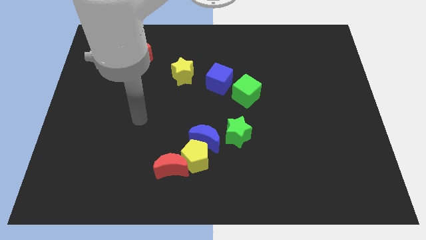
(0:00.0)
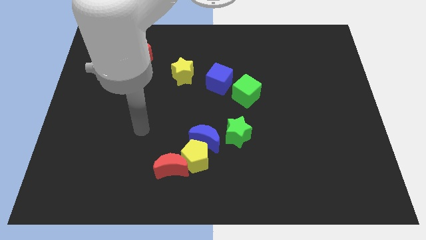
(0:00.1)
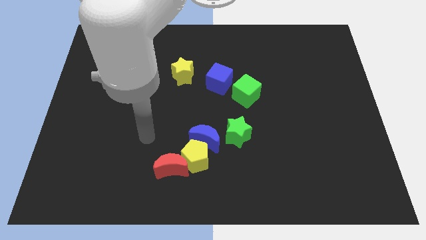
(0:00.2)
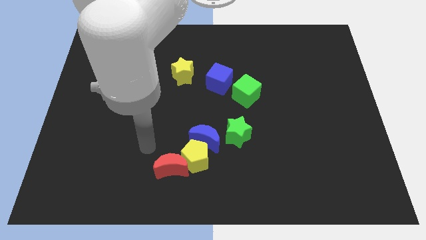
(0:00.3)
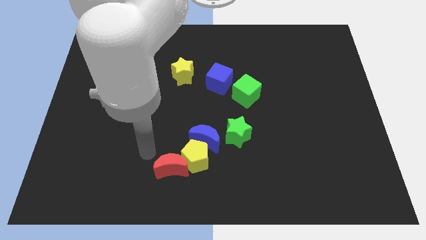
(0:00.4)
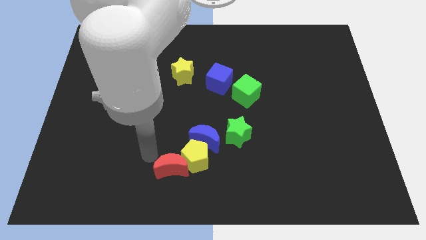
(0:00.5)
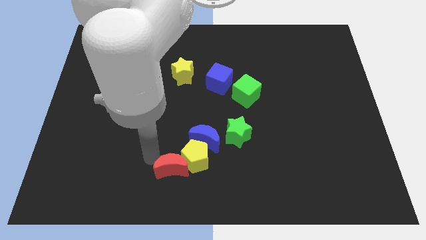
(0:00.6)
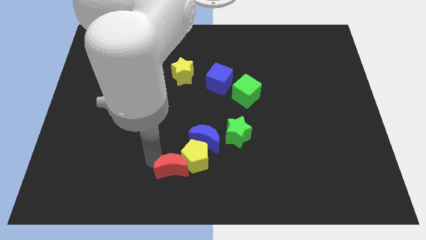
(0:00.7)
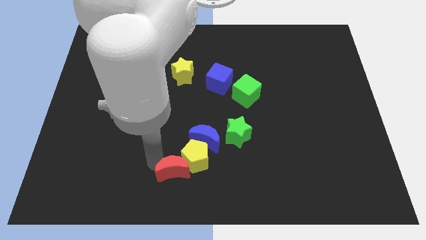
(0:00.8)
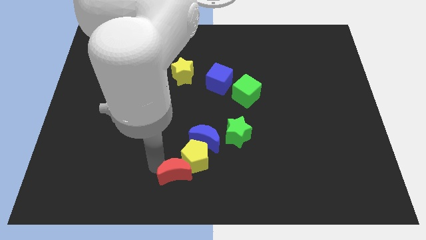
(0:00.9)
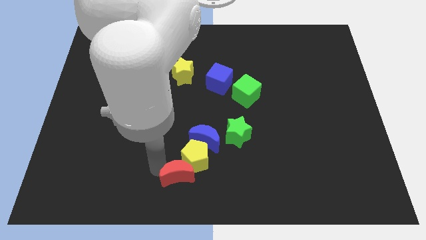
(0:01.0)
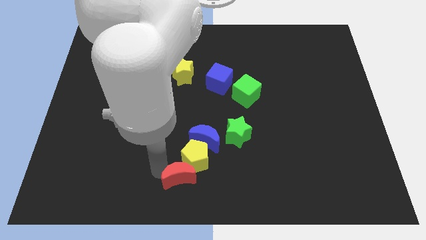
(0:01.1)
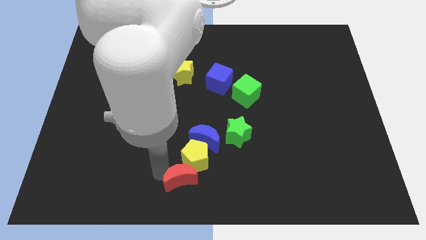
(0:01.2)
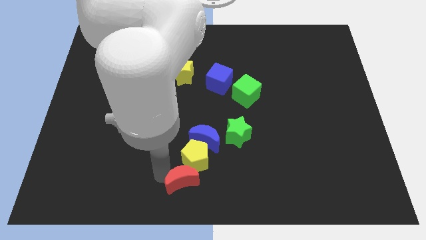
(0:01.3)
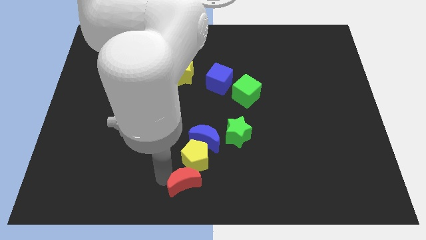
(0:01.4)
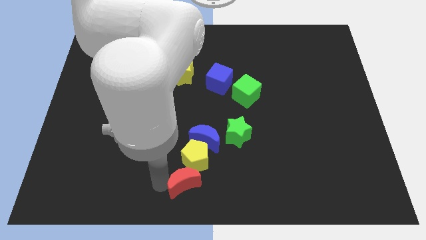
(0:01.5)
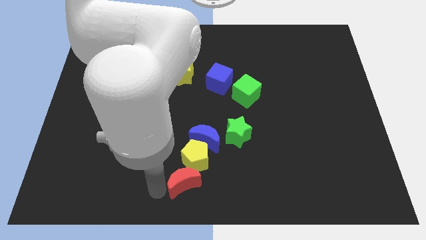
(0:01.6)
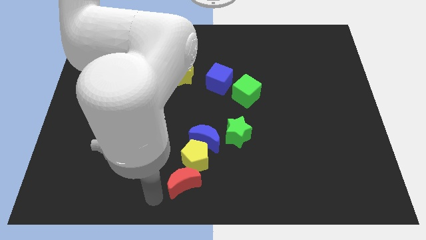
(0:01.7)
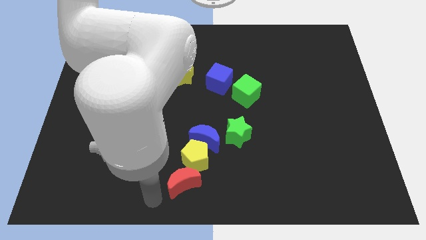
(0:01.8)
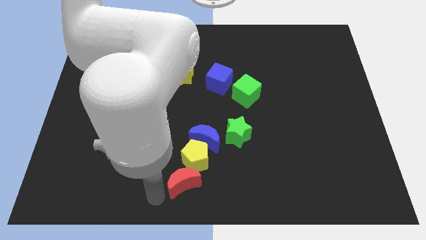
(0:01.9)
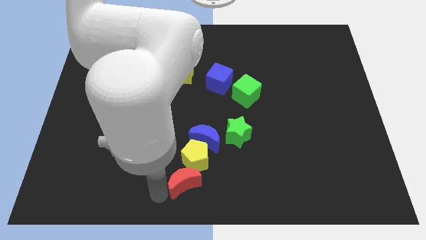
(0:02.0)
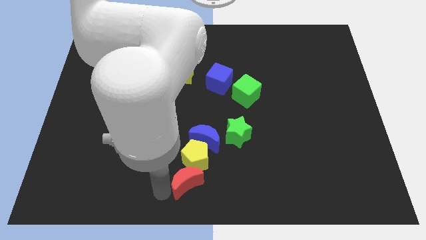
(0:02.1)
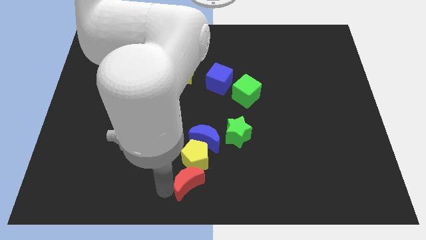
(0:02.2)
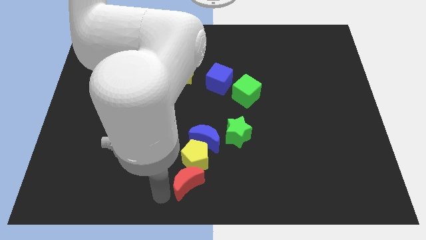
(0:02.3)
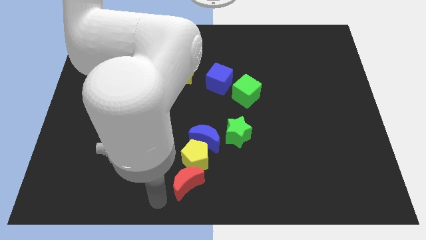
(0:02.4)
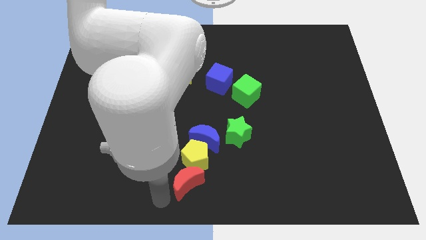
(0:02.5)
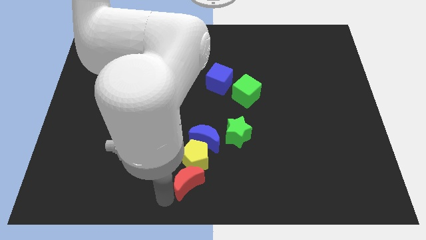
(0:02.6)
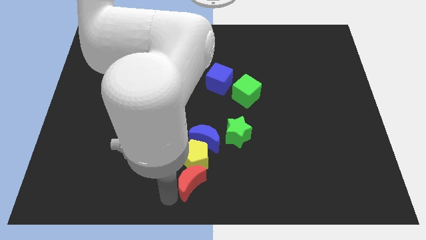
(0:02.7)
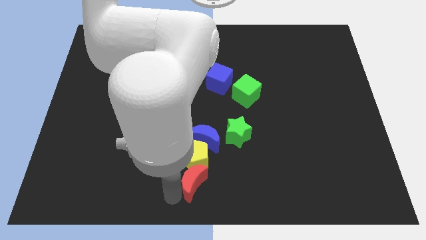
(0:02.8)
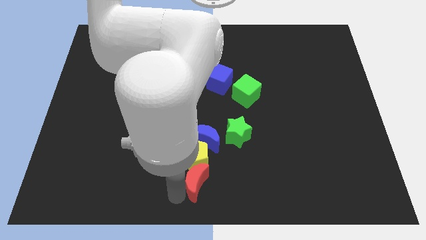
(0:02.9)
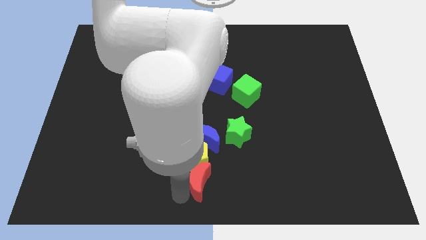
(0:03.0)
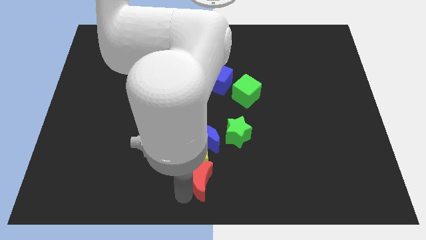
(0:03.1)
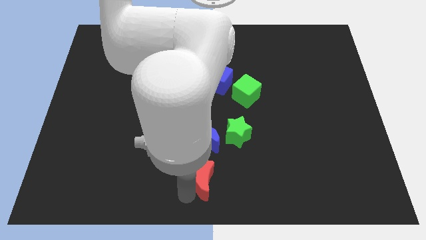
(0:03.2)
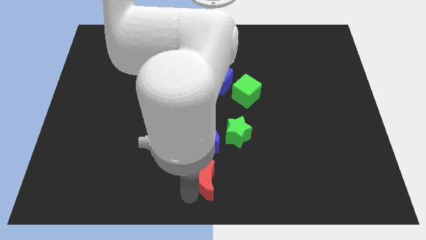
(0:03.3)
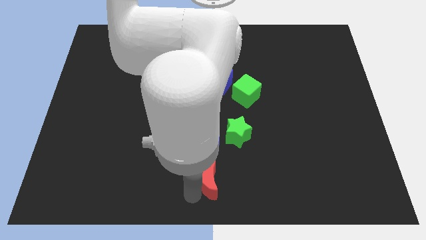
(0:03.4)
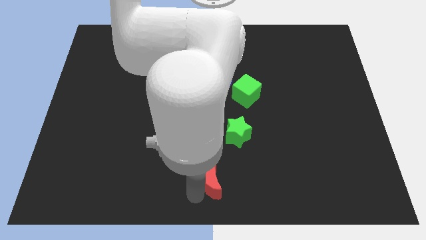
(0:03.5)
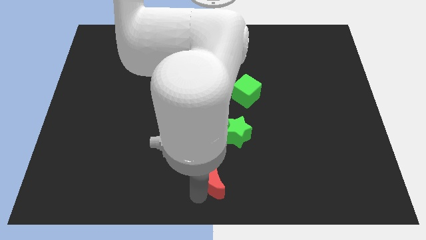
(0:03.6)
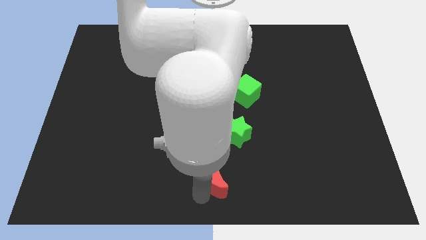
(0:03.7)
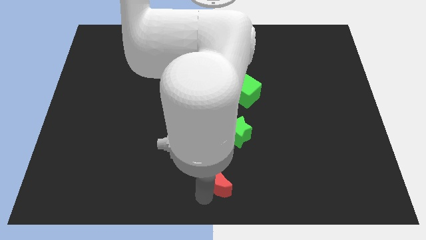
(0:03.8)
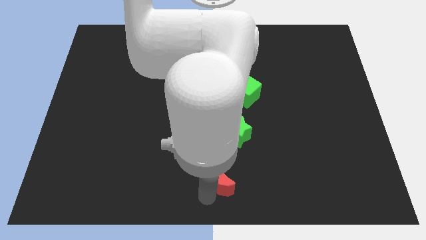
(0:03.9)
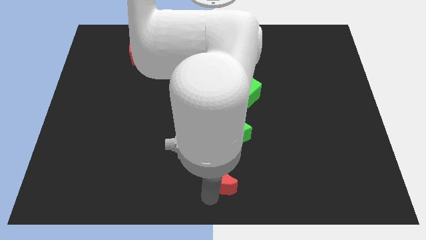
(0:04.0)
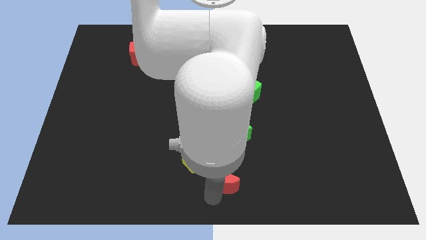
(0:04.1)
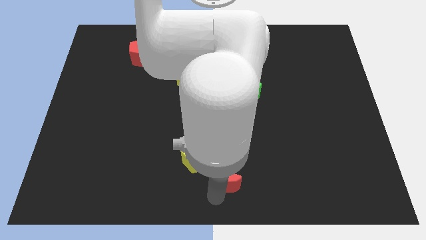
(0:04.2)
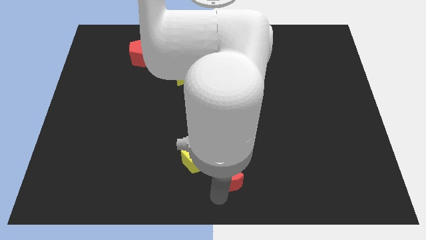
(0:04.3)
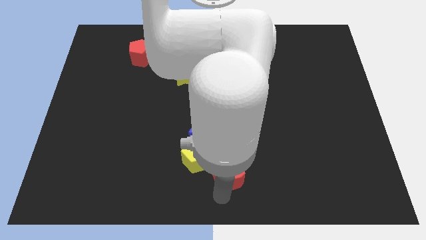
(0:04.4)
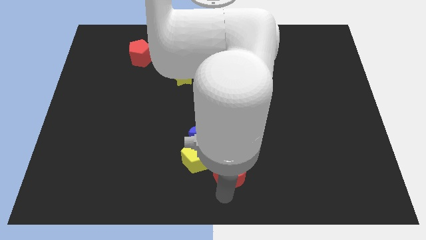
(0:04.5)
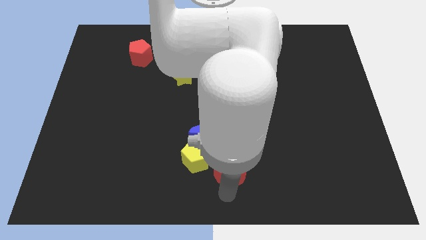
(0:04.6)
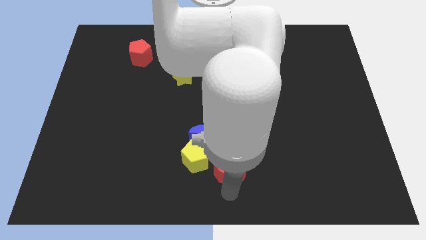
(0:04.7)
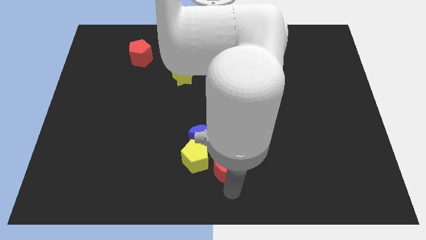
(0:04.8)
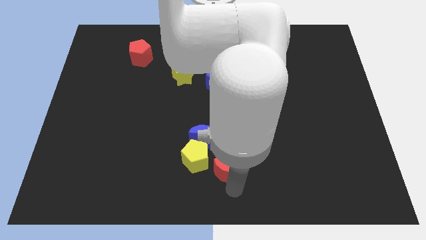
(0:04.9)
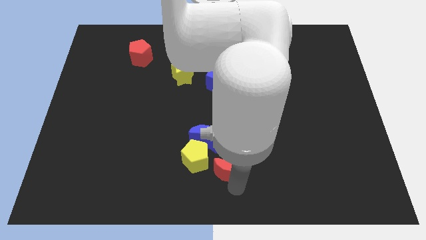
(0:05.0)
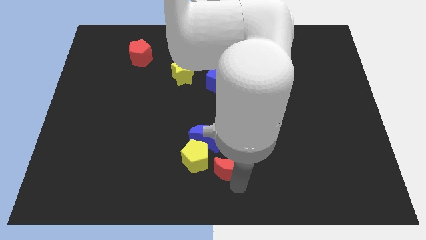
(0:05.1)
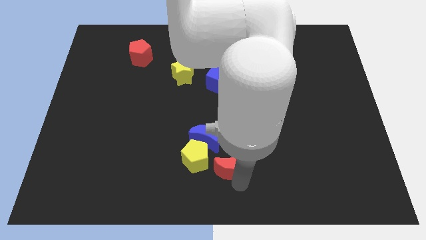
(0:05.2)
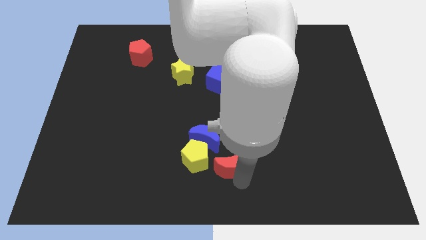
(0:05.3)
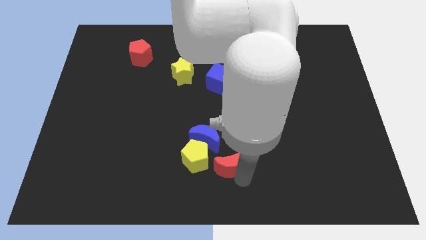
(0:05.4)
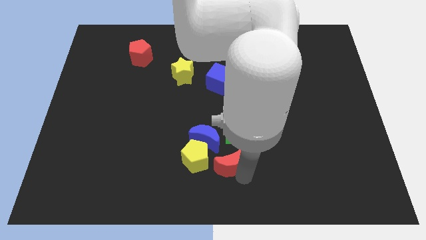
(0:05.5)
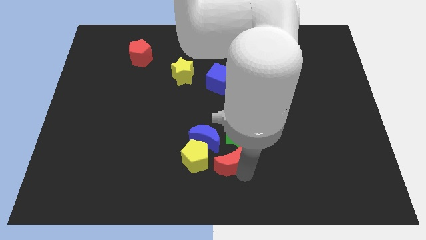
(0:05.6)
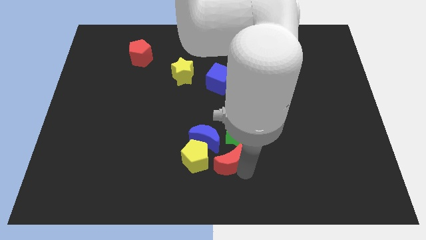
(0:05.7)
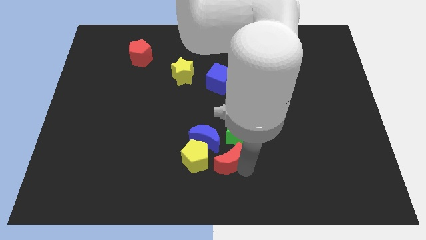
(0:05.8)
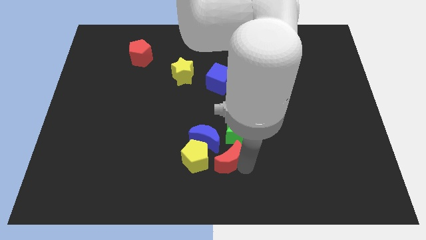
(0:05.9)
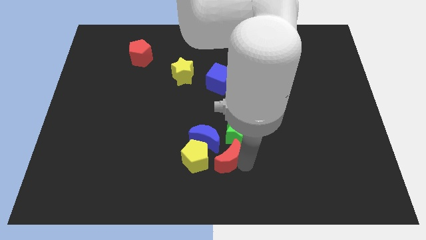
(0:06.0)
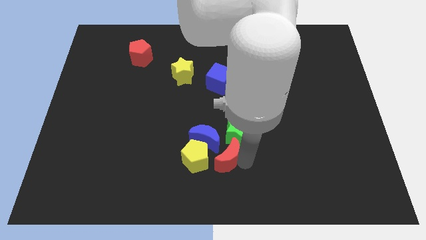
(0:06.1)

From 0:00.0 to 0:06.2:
put the red moon close to the green star

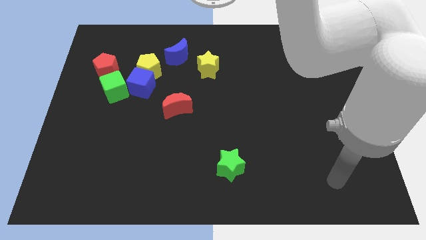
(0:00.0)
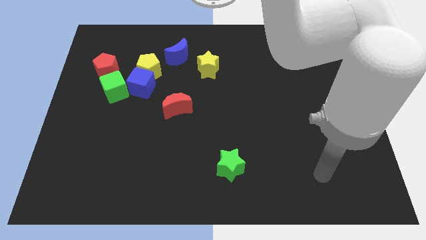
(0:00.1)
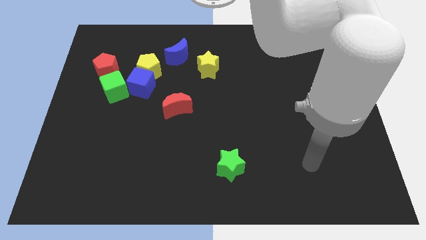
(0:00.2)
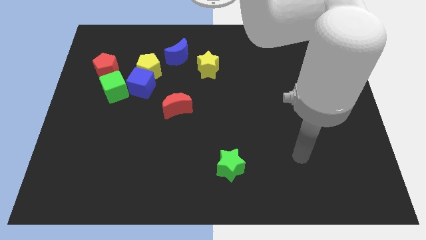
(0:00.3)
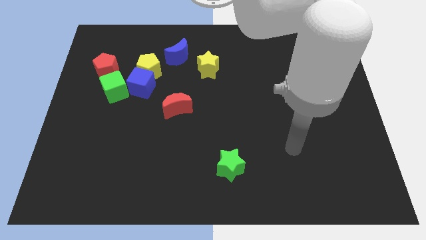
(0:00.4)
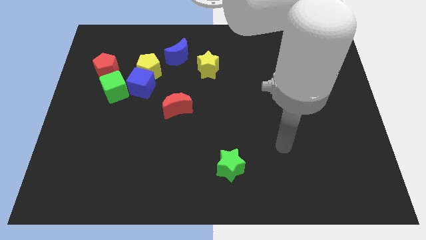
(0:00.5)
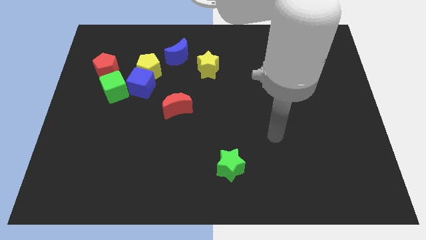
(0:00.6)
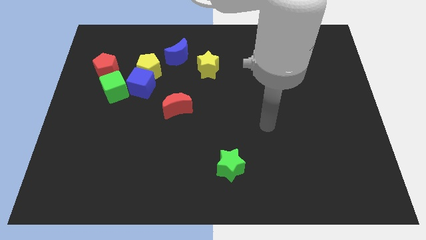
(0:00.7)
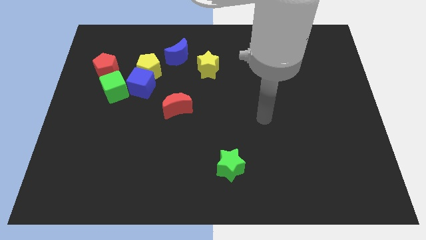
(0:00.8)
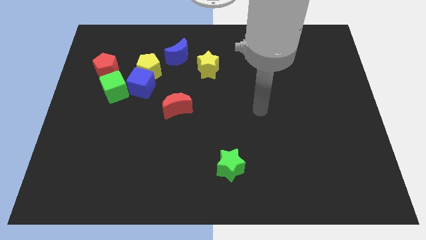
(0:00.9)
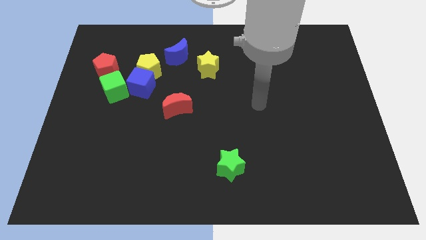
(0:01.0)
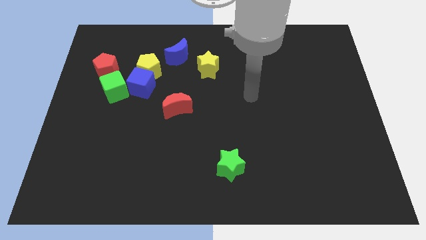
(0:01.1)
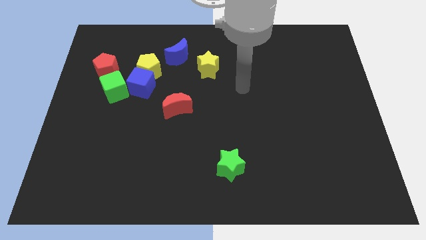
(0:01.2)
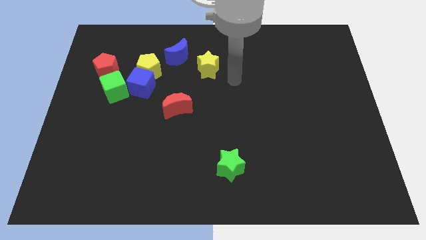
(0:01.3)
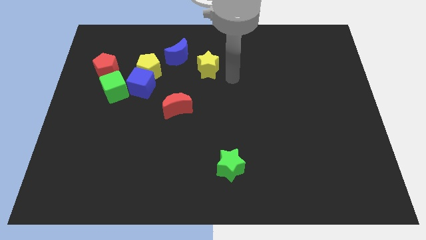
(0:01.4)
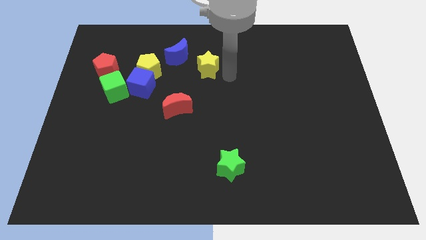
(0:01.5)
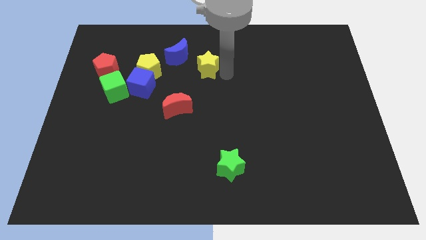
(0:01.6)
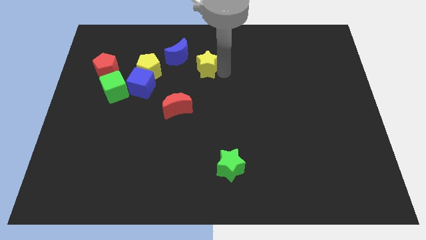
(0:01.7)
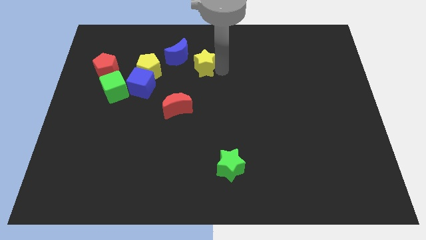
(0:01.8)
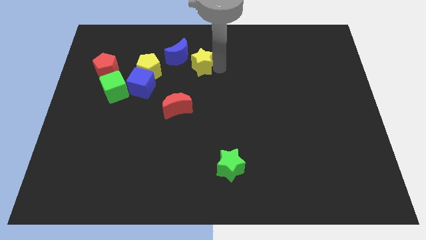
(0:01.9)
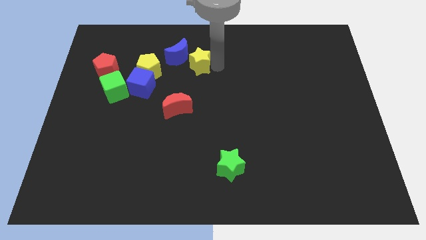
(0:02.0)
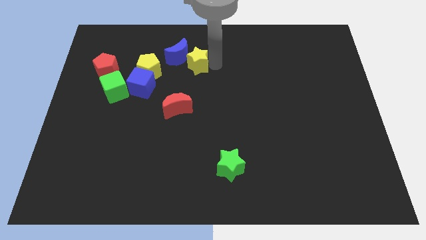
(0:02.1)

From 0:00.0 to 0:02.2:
move the yellow star to the blue moon
